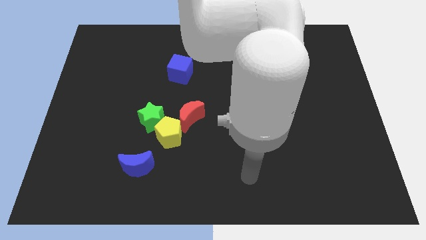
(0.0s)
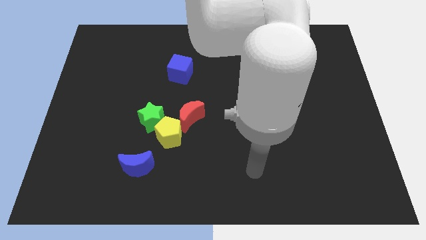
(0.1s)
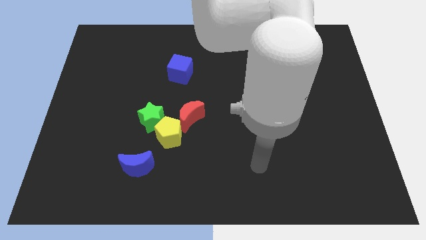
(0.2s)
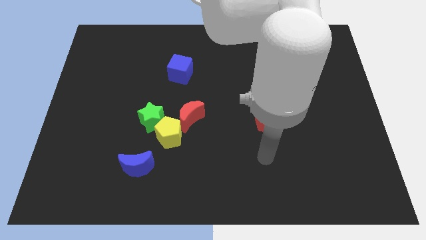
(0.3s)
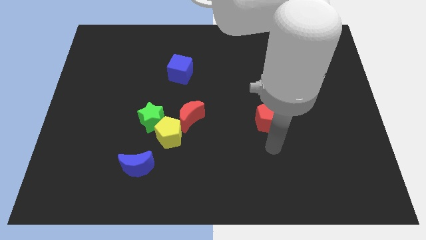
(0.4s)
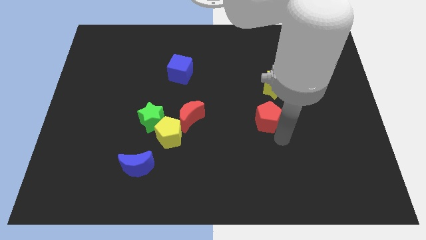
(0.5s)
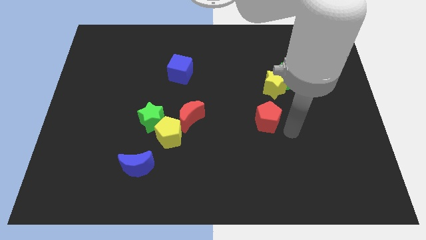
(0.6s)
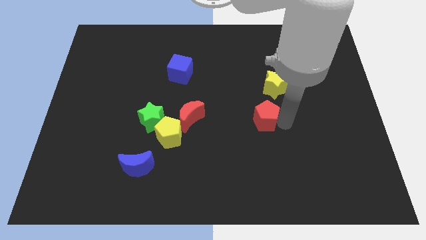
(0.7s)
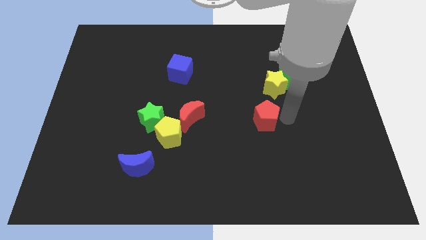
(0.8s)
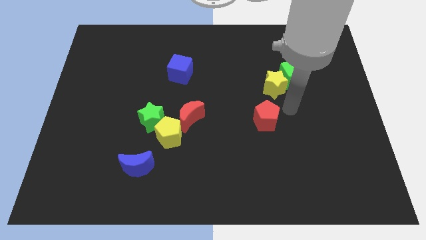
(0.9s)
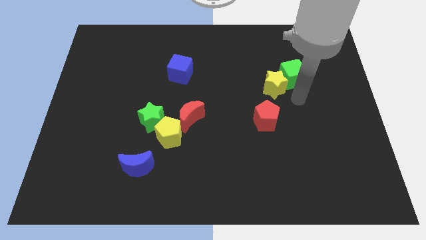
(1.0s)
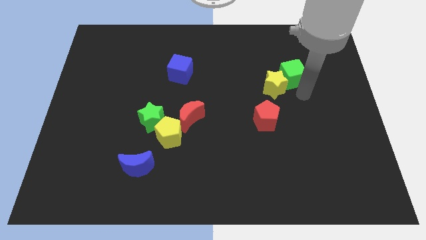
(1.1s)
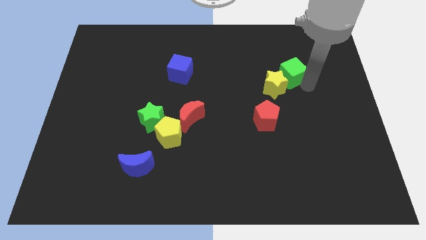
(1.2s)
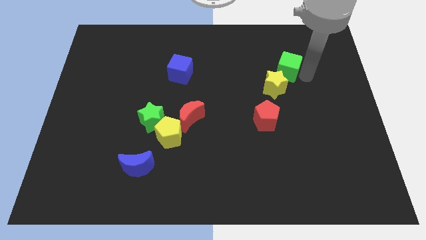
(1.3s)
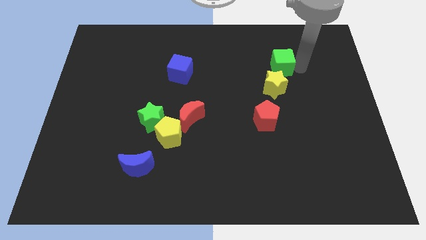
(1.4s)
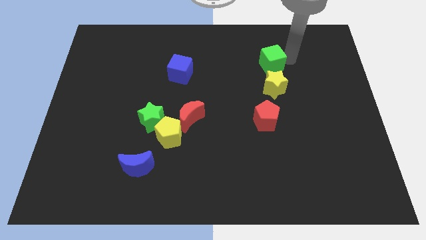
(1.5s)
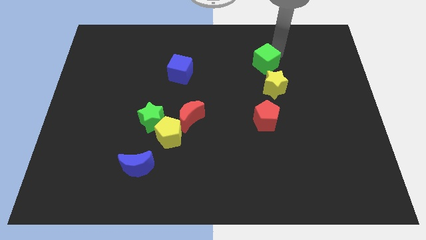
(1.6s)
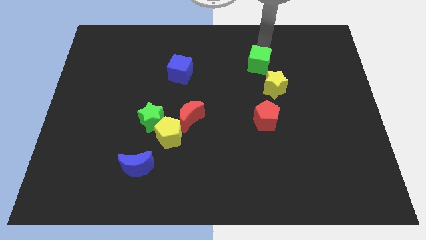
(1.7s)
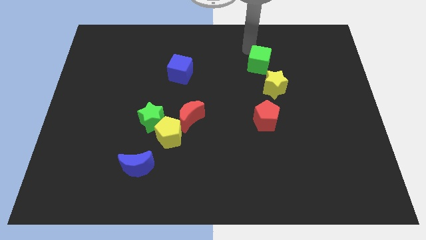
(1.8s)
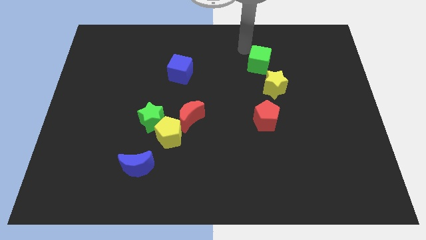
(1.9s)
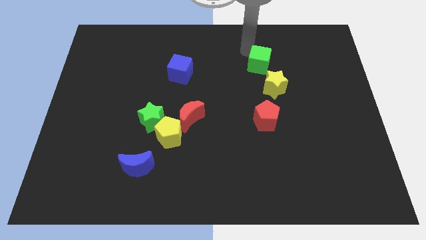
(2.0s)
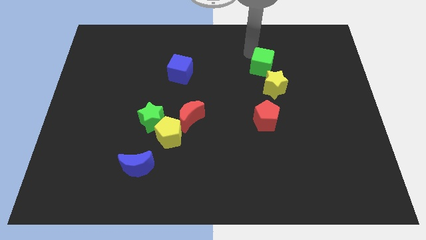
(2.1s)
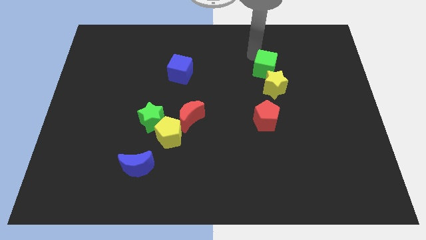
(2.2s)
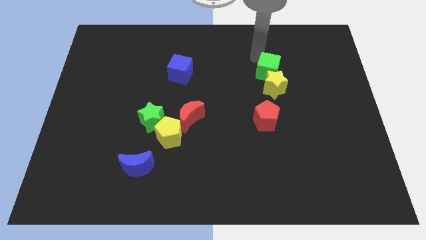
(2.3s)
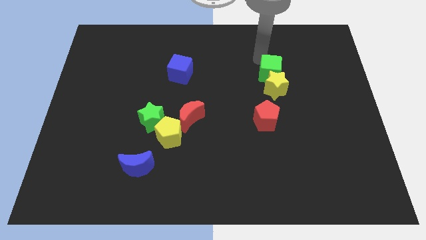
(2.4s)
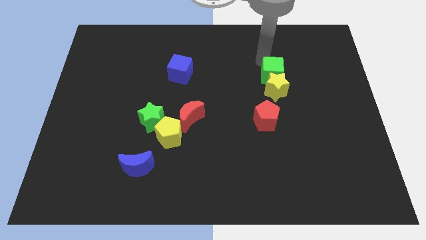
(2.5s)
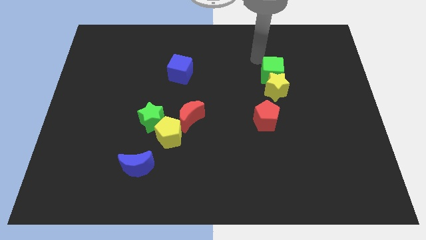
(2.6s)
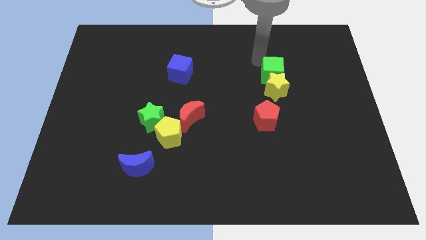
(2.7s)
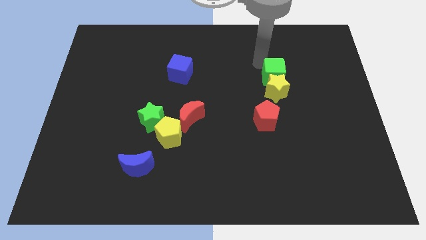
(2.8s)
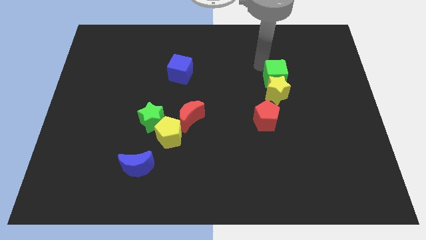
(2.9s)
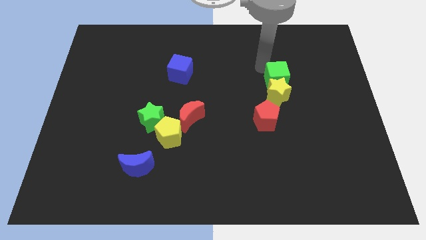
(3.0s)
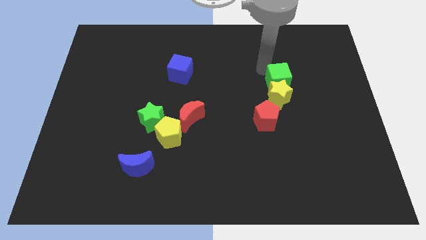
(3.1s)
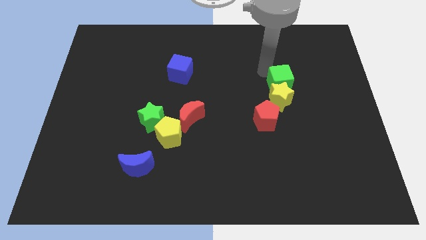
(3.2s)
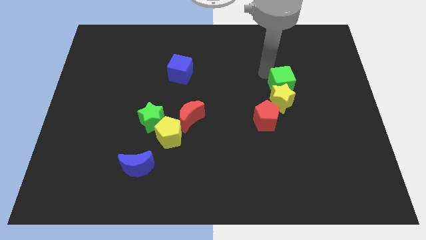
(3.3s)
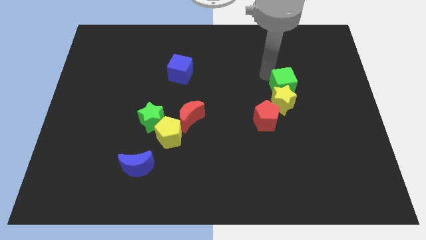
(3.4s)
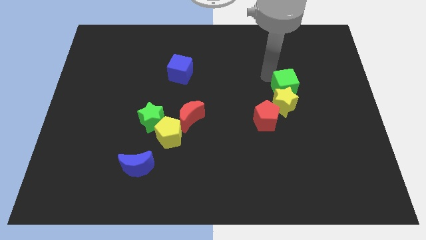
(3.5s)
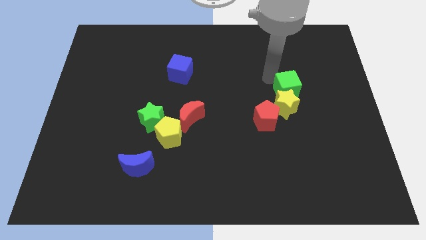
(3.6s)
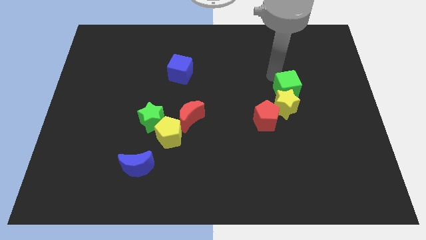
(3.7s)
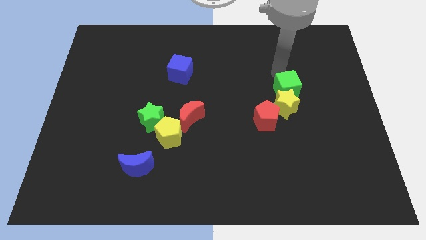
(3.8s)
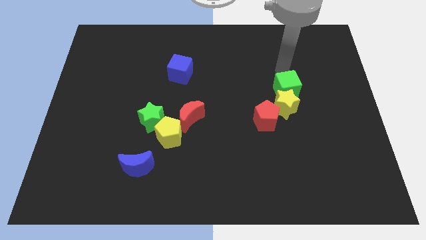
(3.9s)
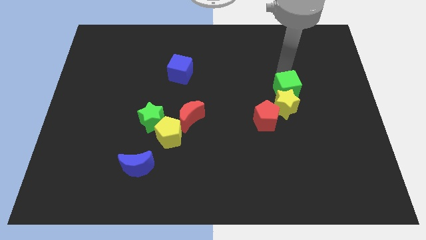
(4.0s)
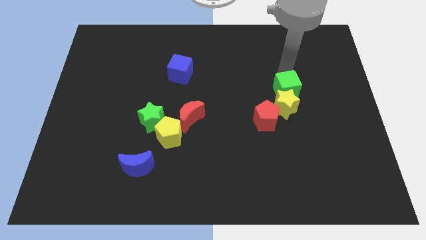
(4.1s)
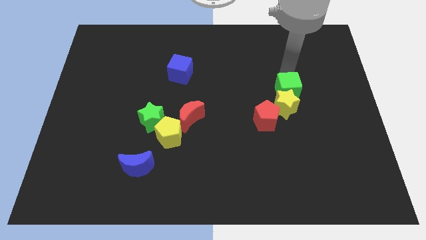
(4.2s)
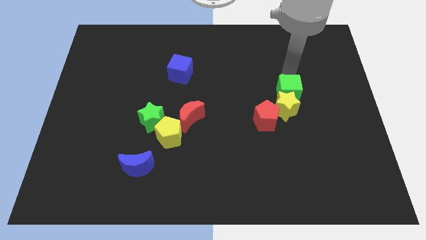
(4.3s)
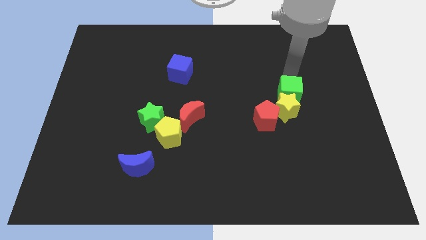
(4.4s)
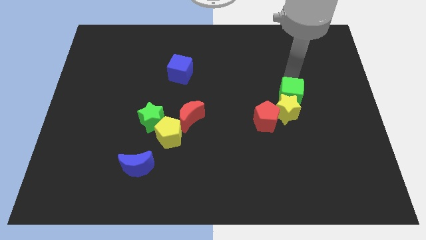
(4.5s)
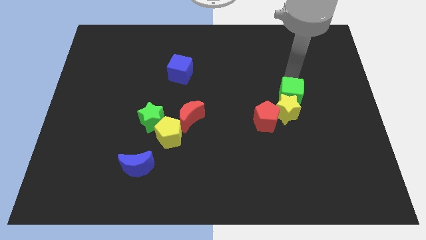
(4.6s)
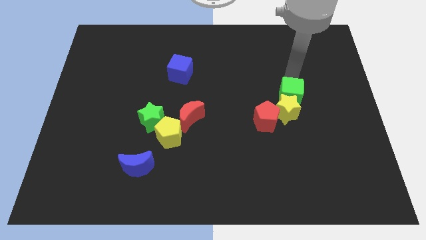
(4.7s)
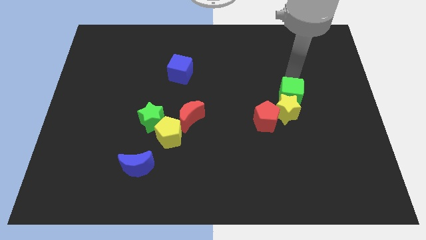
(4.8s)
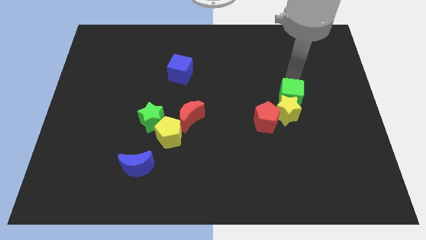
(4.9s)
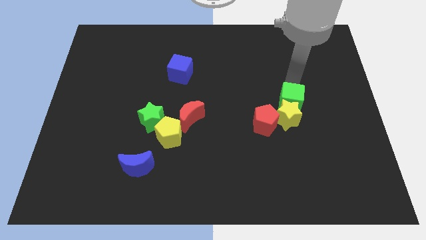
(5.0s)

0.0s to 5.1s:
move the green cube a little downwards

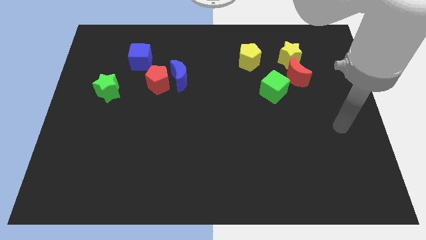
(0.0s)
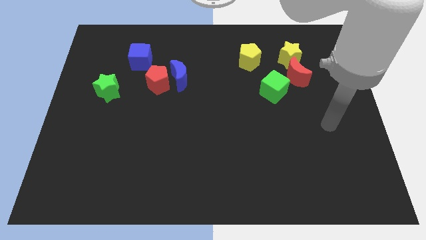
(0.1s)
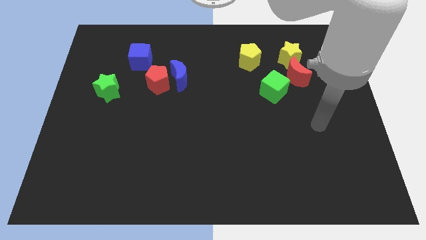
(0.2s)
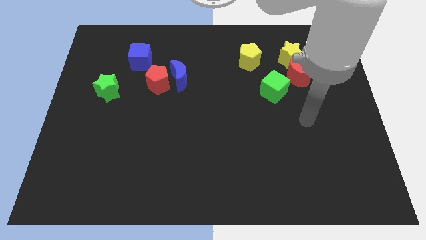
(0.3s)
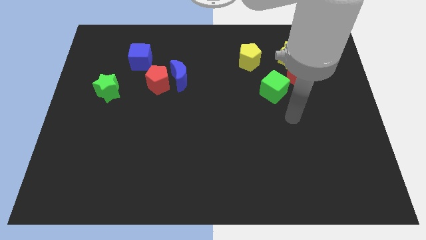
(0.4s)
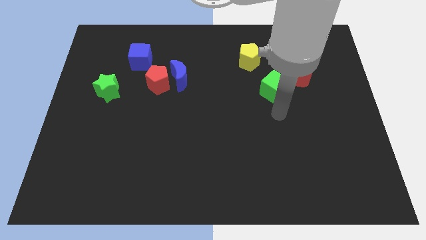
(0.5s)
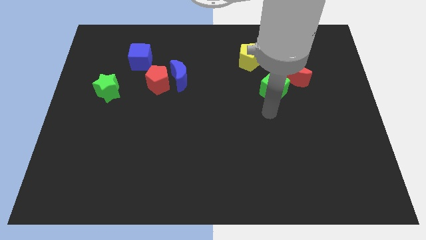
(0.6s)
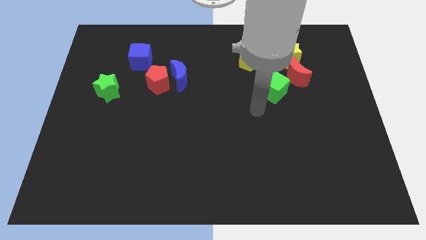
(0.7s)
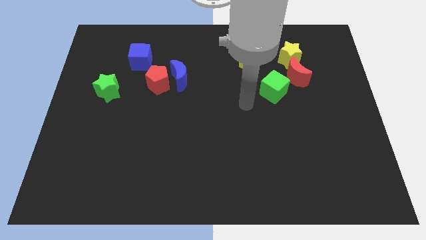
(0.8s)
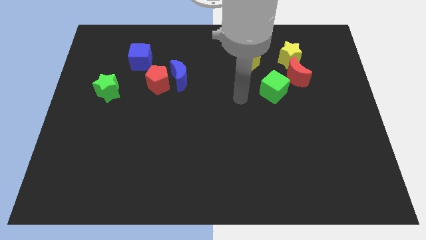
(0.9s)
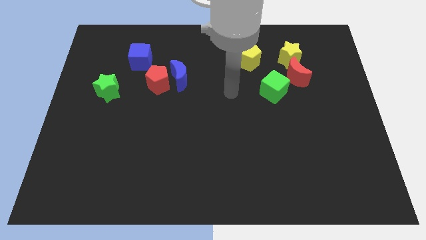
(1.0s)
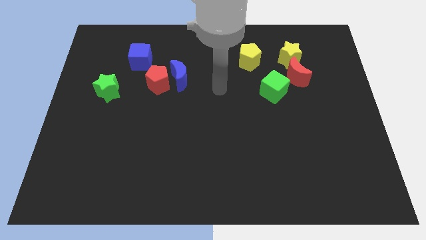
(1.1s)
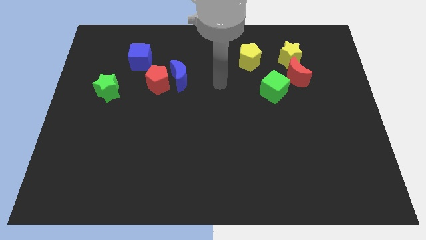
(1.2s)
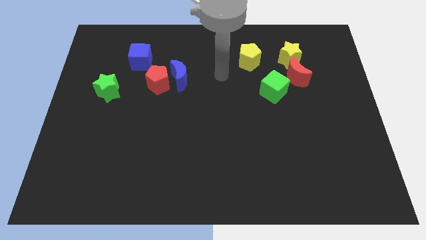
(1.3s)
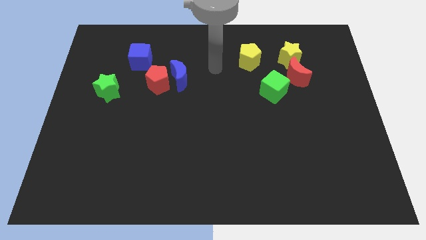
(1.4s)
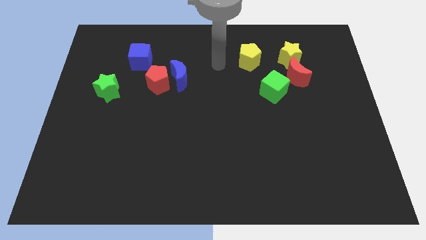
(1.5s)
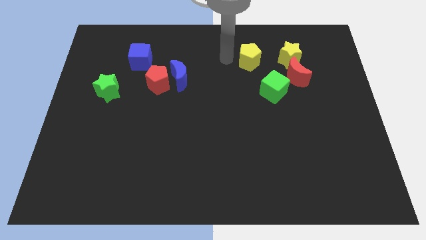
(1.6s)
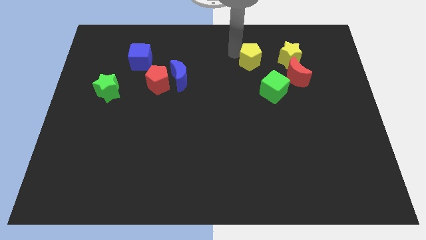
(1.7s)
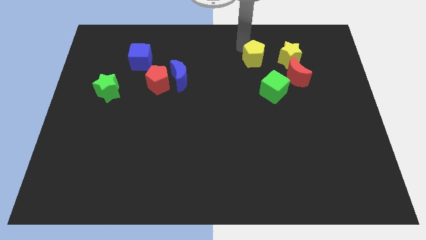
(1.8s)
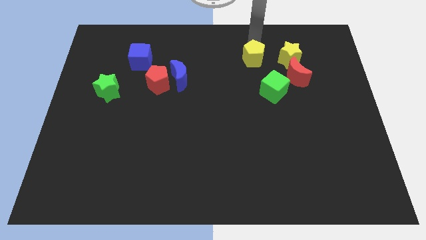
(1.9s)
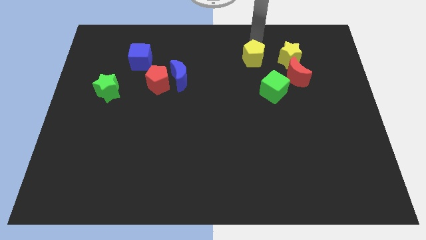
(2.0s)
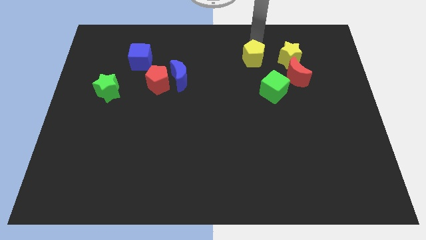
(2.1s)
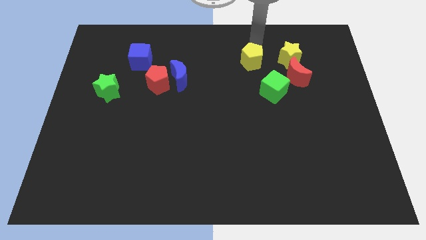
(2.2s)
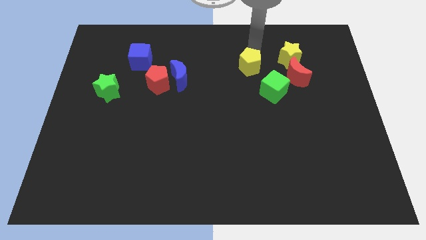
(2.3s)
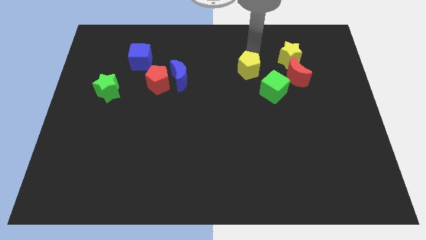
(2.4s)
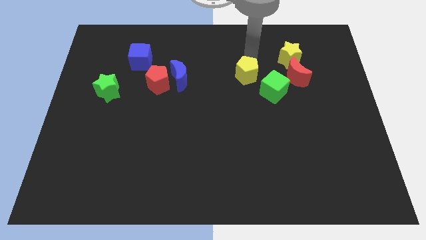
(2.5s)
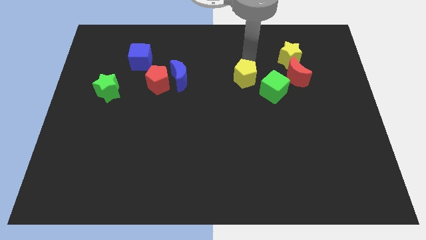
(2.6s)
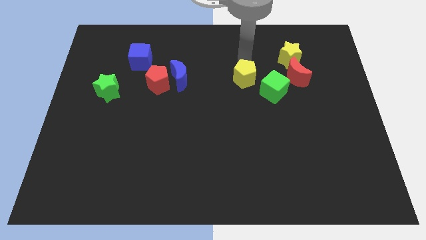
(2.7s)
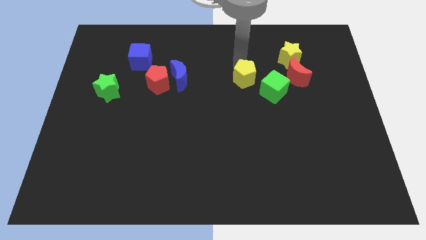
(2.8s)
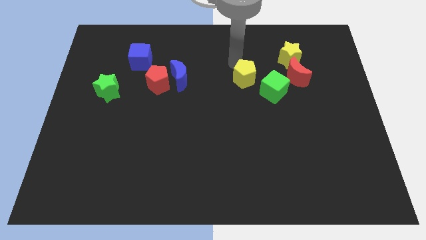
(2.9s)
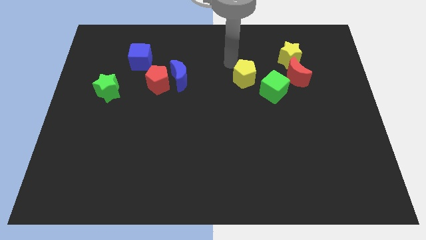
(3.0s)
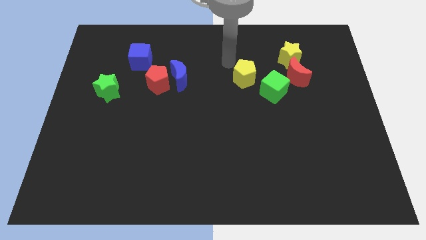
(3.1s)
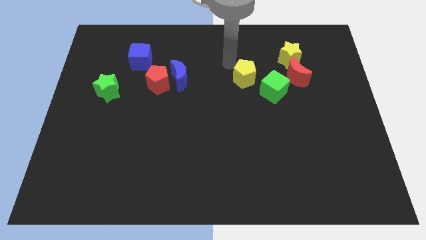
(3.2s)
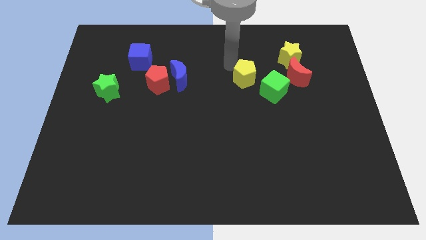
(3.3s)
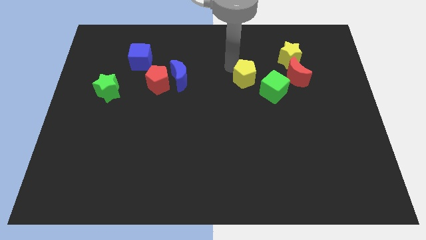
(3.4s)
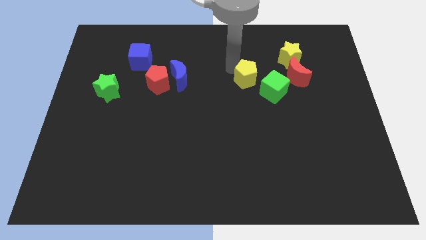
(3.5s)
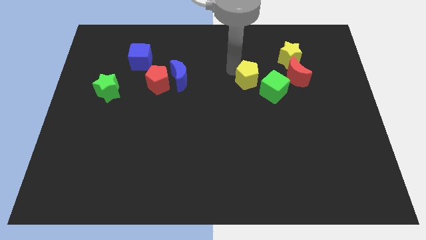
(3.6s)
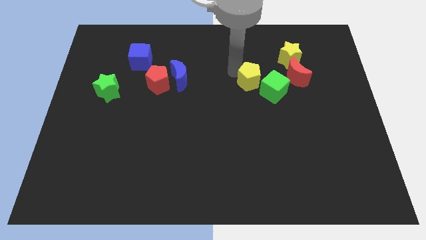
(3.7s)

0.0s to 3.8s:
slide the yellow pentagon slightly down
